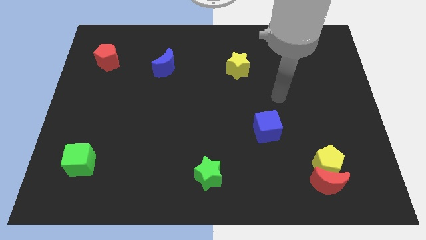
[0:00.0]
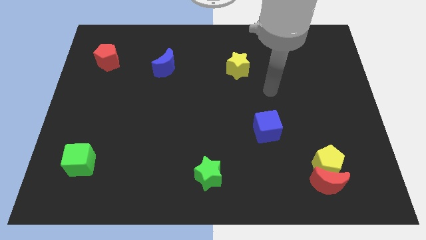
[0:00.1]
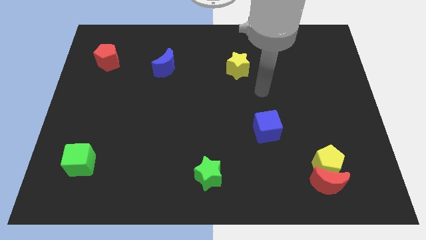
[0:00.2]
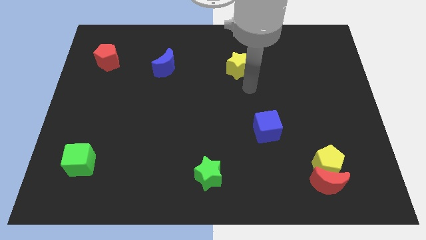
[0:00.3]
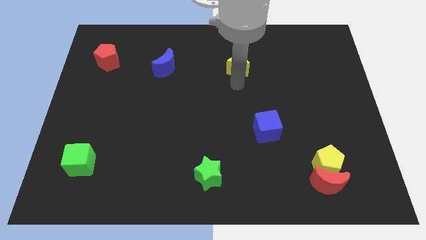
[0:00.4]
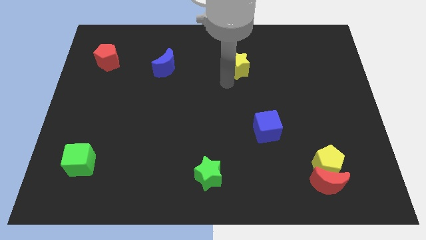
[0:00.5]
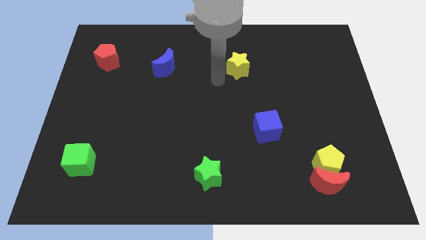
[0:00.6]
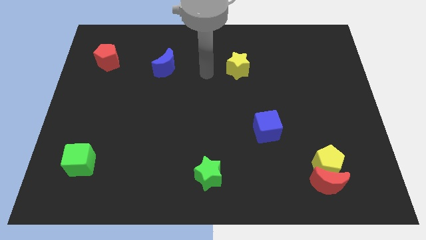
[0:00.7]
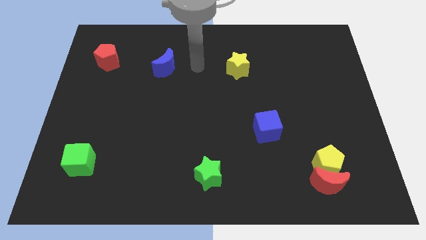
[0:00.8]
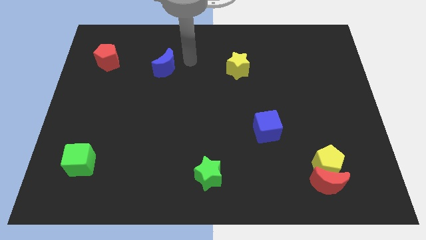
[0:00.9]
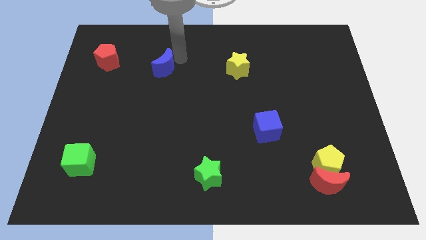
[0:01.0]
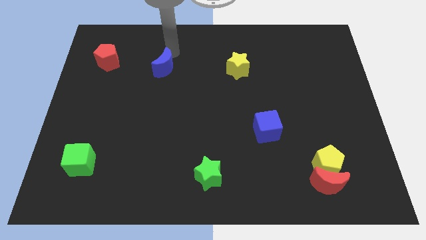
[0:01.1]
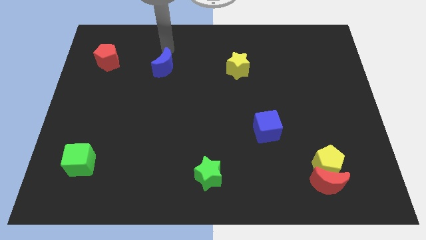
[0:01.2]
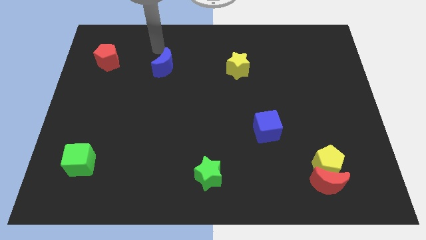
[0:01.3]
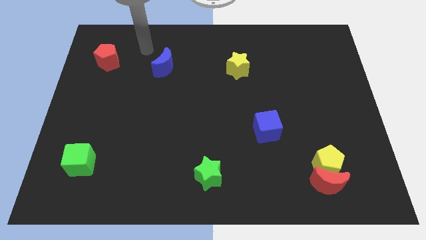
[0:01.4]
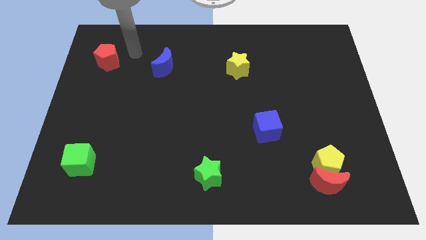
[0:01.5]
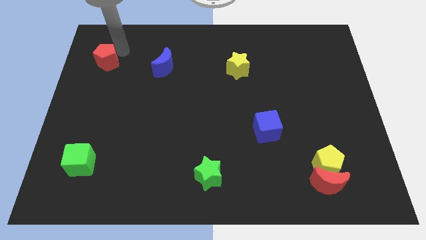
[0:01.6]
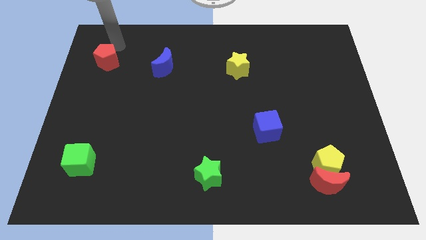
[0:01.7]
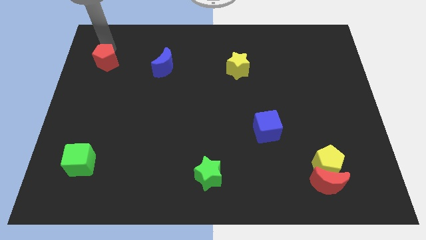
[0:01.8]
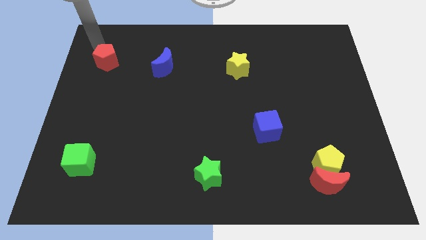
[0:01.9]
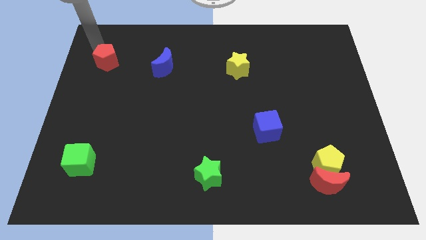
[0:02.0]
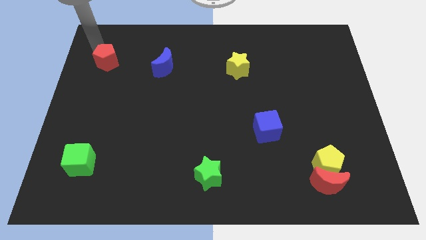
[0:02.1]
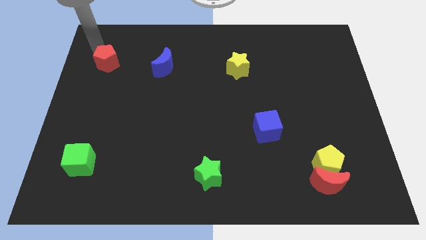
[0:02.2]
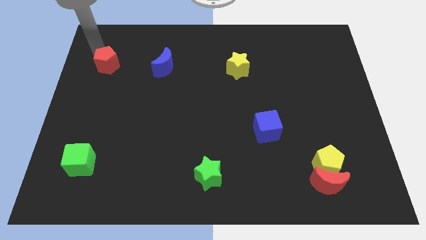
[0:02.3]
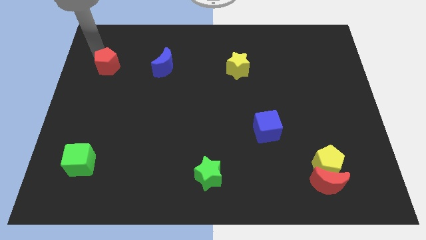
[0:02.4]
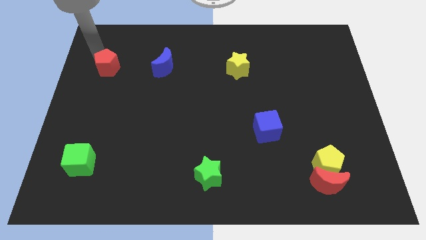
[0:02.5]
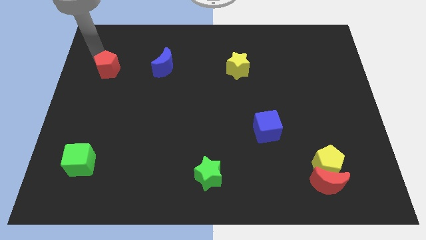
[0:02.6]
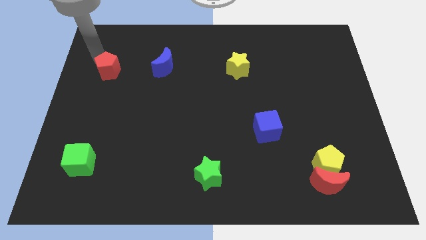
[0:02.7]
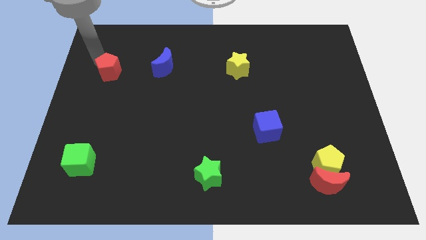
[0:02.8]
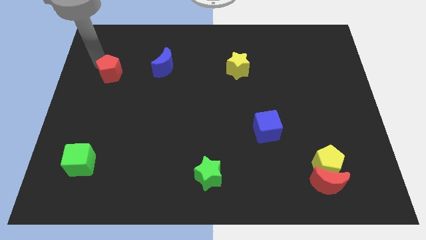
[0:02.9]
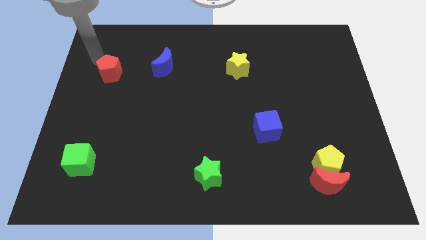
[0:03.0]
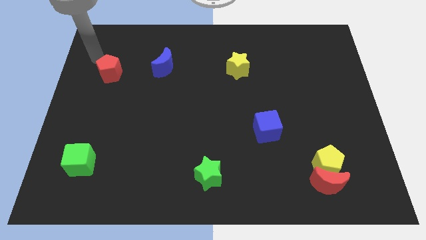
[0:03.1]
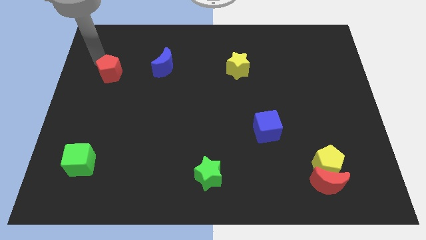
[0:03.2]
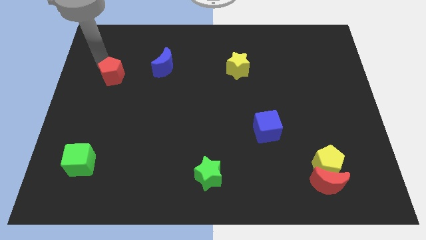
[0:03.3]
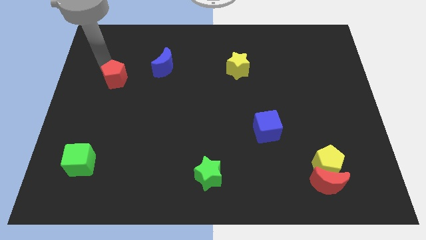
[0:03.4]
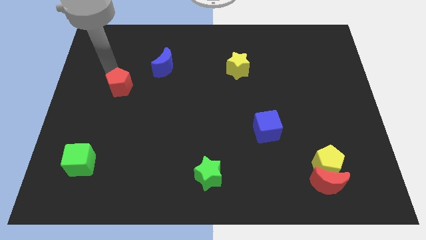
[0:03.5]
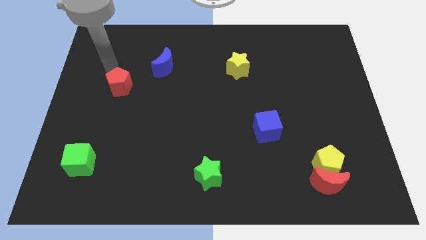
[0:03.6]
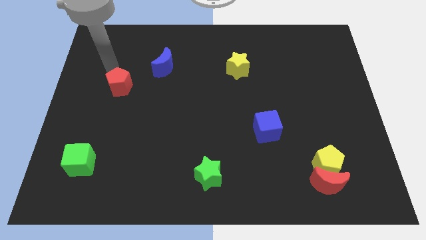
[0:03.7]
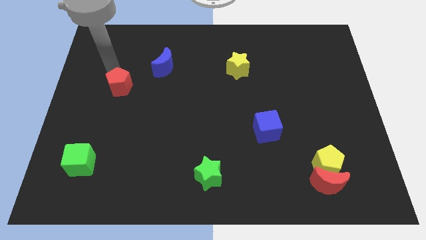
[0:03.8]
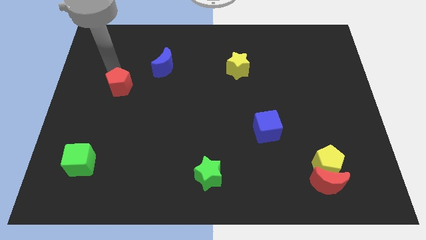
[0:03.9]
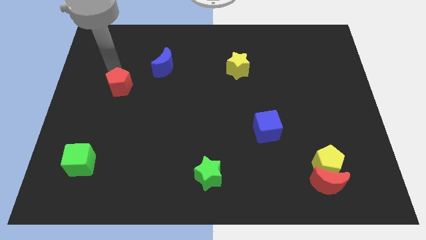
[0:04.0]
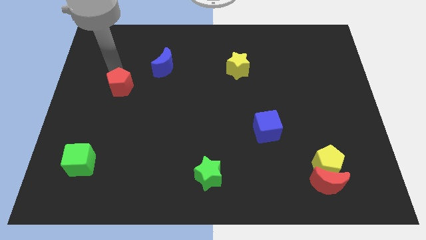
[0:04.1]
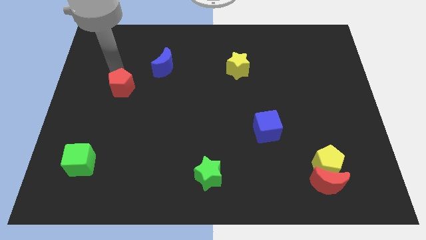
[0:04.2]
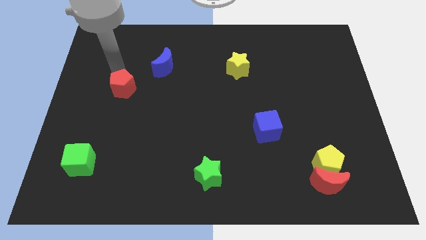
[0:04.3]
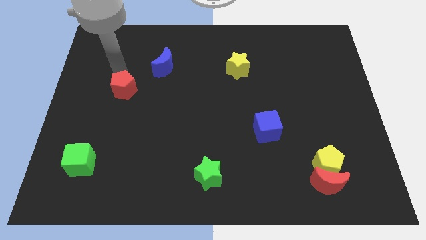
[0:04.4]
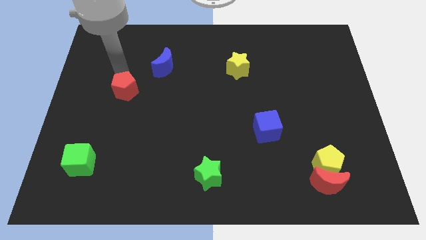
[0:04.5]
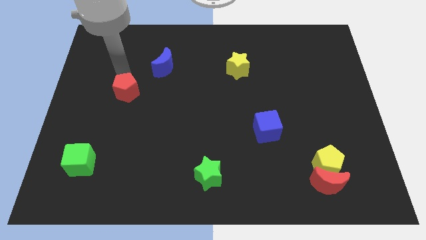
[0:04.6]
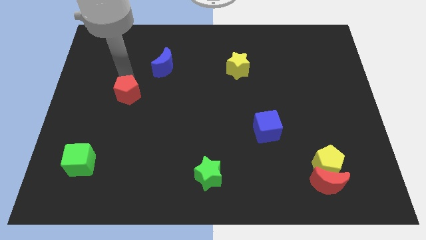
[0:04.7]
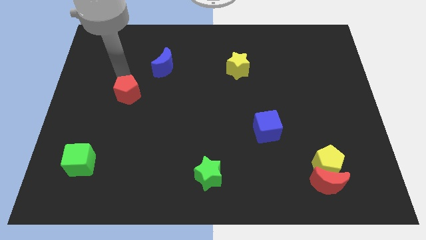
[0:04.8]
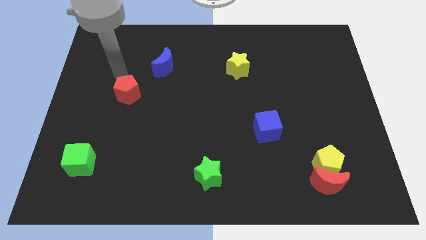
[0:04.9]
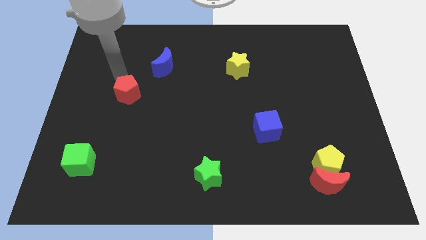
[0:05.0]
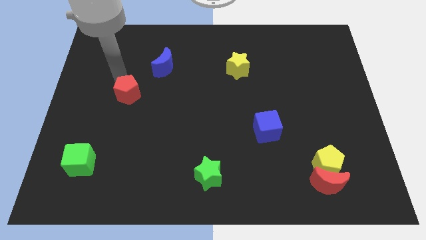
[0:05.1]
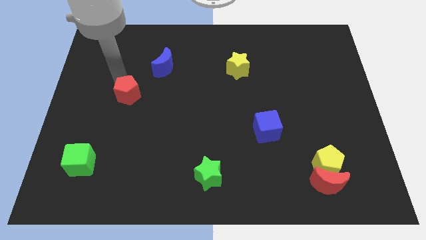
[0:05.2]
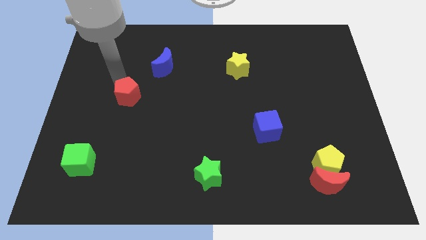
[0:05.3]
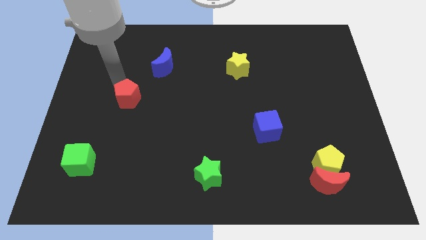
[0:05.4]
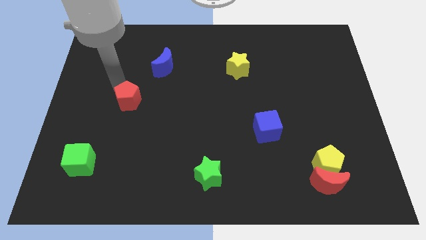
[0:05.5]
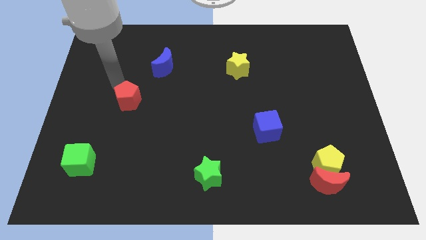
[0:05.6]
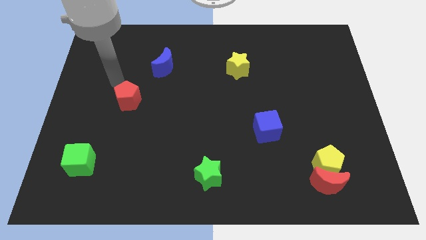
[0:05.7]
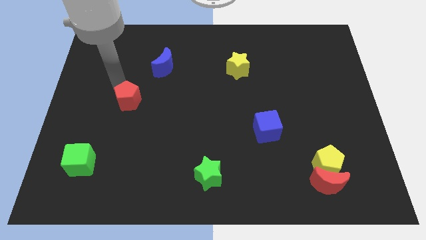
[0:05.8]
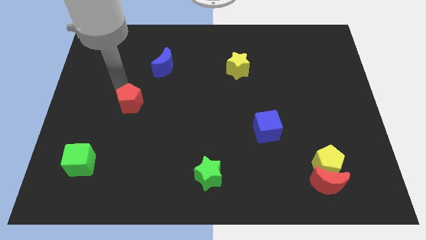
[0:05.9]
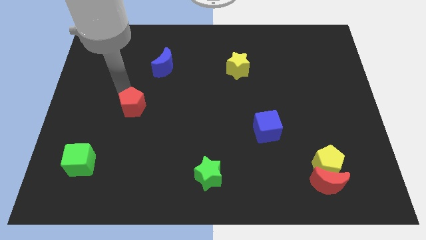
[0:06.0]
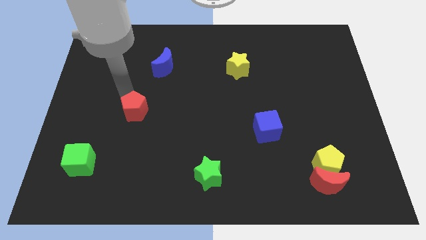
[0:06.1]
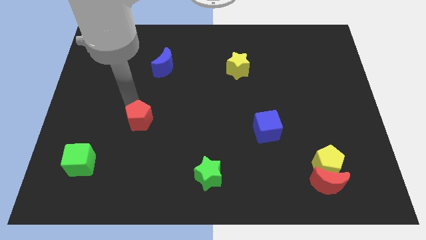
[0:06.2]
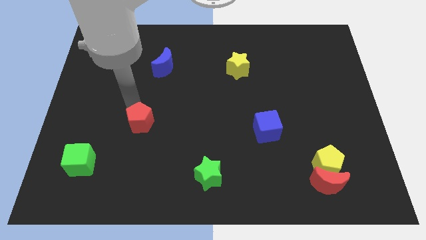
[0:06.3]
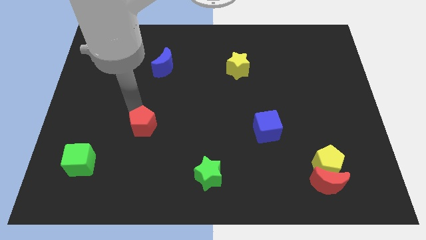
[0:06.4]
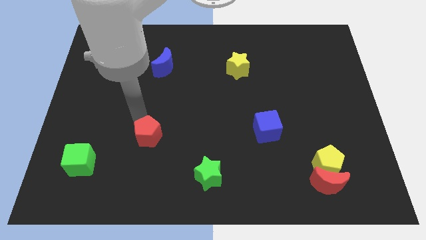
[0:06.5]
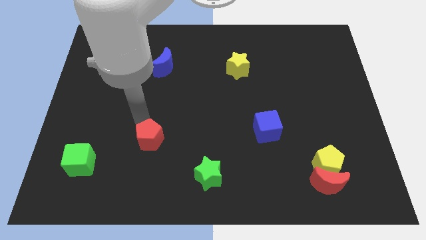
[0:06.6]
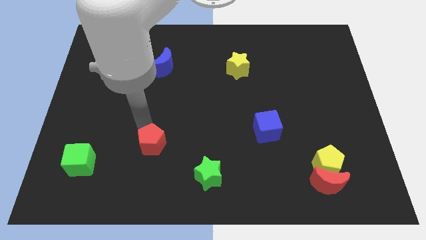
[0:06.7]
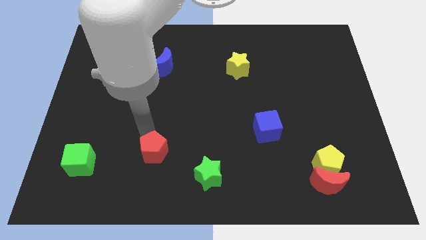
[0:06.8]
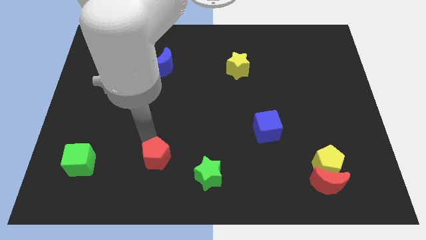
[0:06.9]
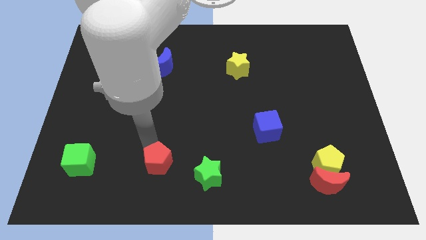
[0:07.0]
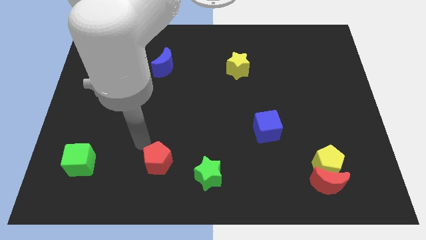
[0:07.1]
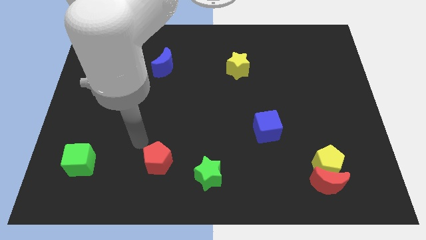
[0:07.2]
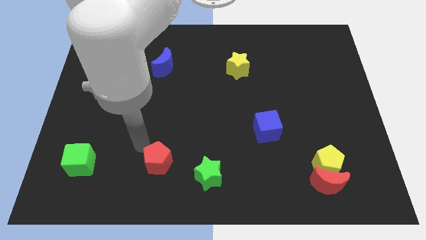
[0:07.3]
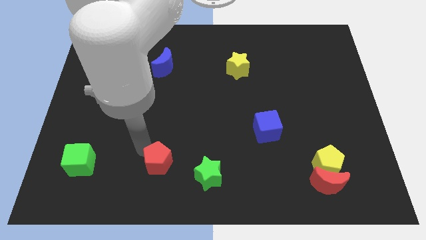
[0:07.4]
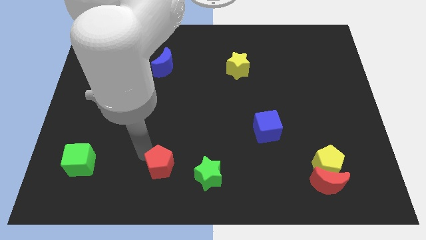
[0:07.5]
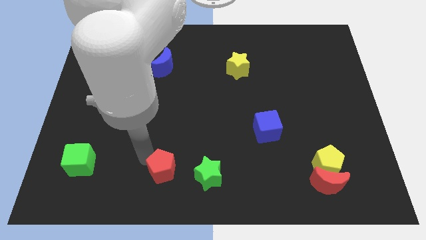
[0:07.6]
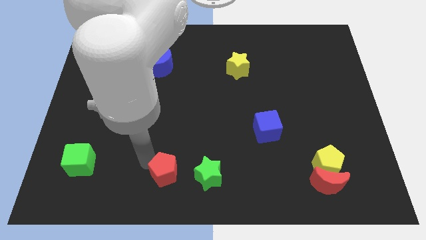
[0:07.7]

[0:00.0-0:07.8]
push the red pentagon to the bottom
